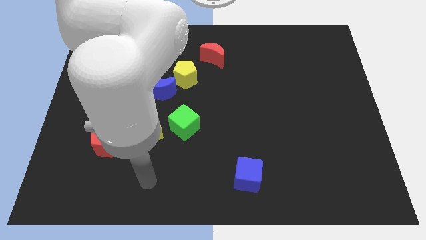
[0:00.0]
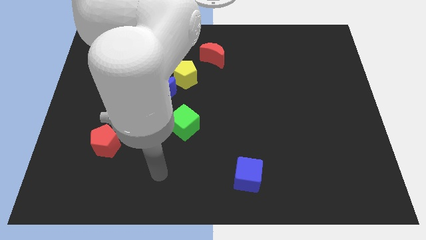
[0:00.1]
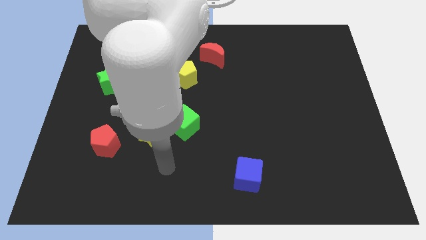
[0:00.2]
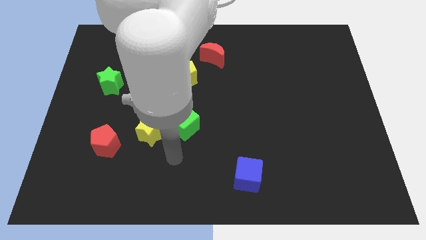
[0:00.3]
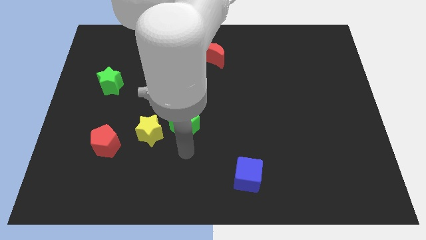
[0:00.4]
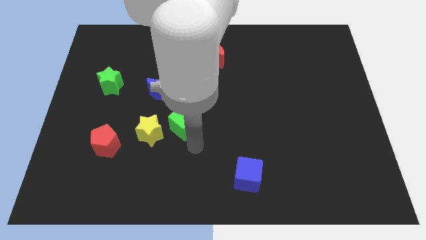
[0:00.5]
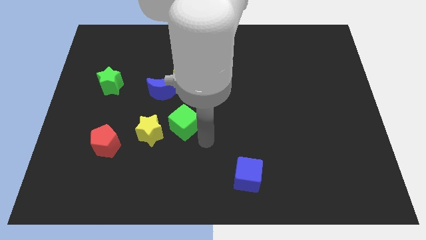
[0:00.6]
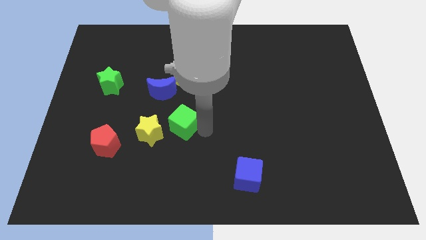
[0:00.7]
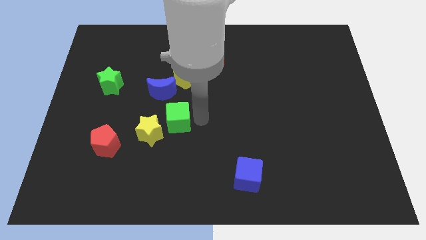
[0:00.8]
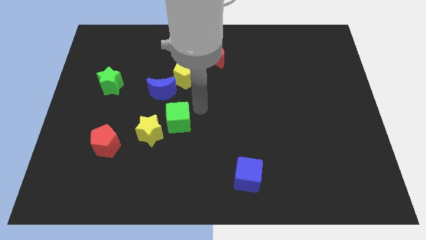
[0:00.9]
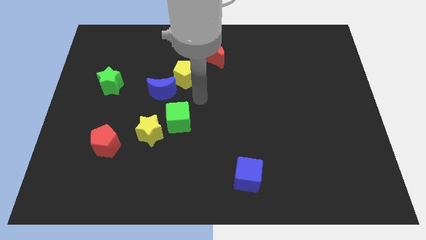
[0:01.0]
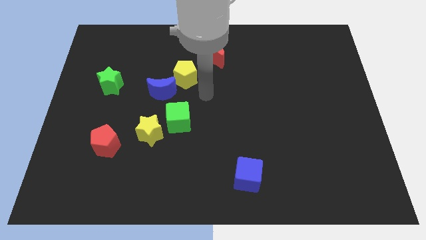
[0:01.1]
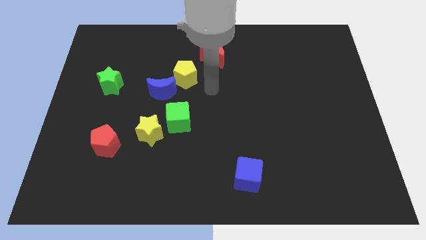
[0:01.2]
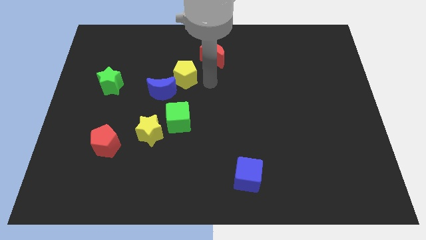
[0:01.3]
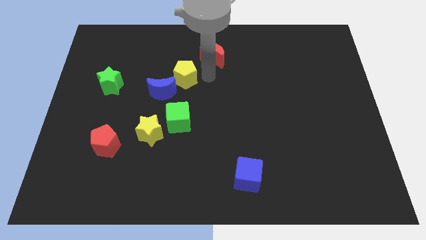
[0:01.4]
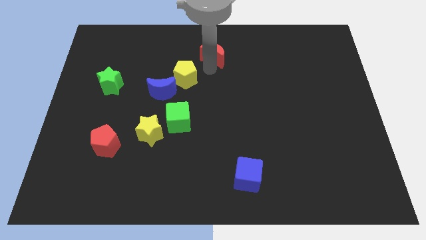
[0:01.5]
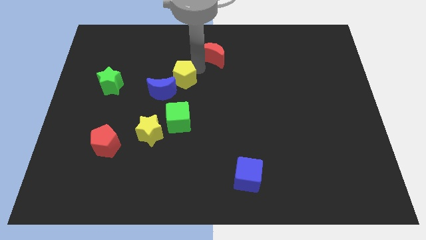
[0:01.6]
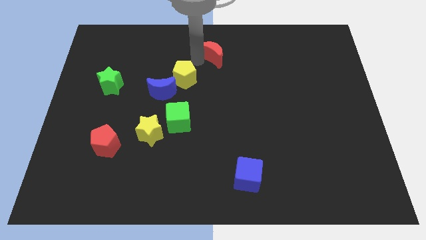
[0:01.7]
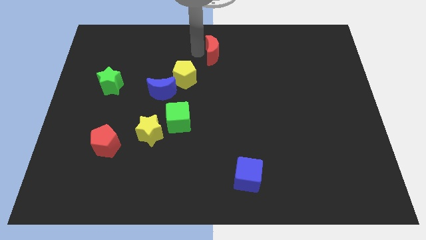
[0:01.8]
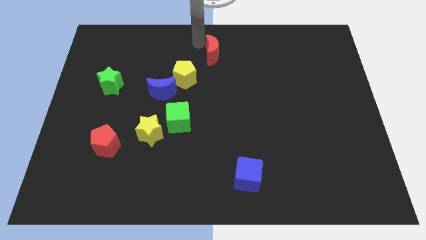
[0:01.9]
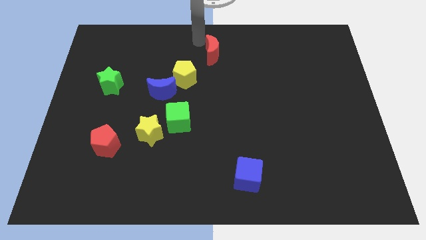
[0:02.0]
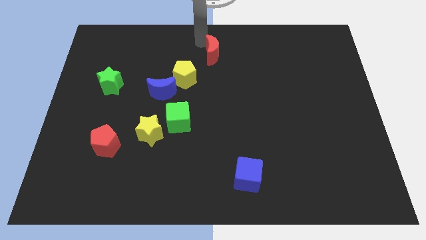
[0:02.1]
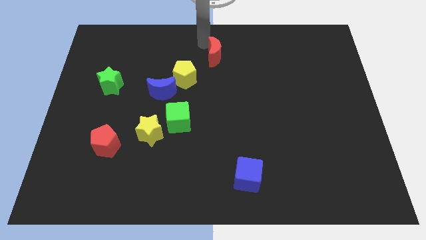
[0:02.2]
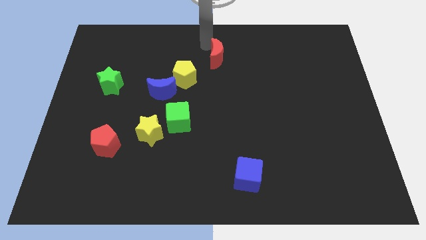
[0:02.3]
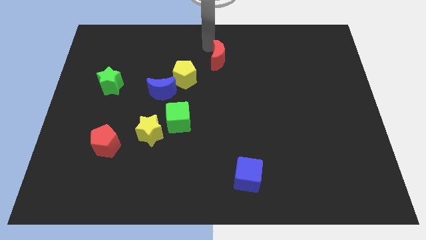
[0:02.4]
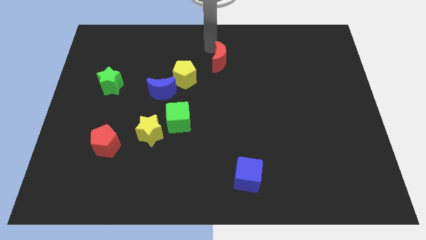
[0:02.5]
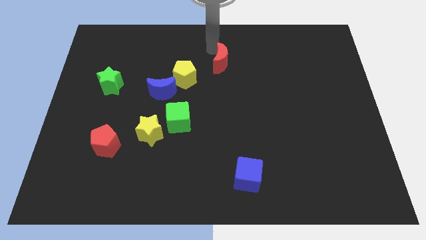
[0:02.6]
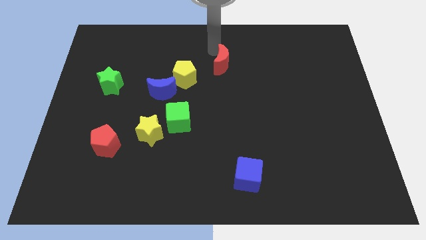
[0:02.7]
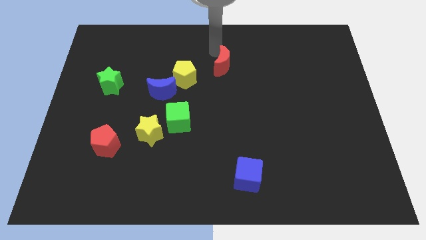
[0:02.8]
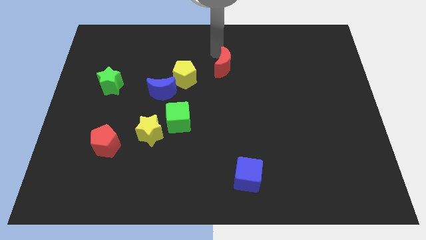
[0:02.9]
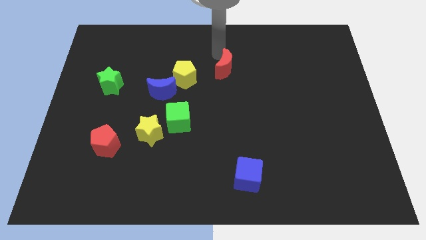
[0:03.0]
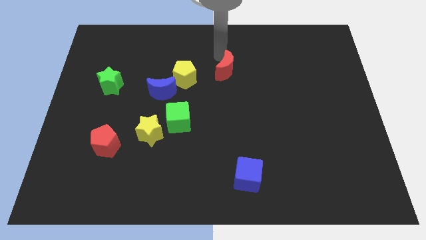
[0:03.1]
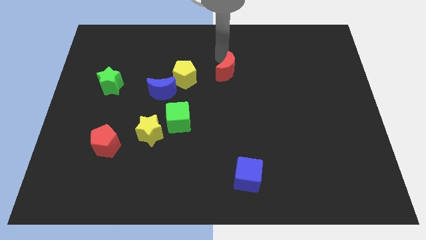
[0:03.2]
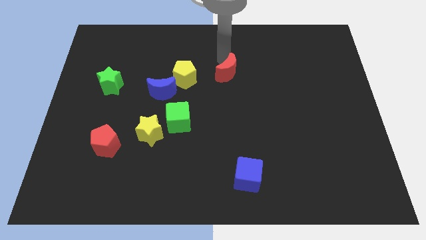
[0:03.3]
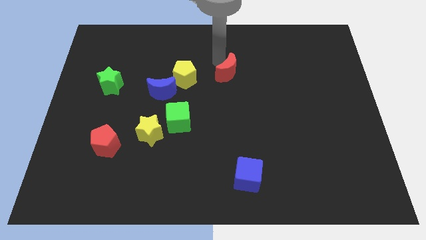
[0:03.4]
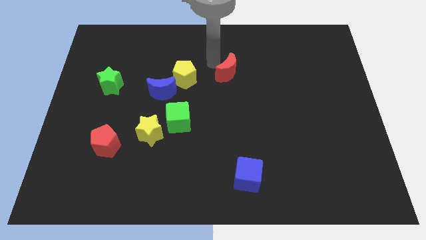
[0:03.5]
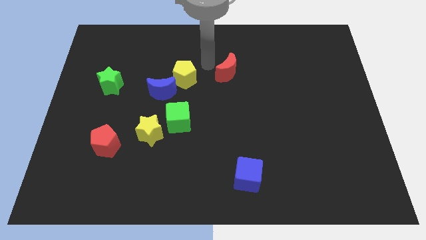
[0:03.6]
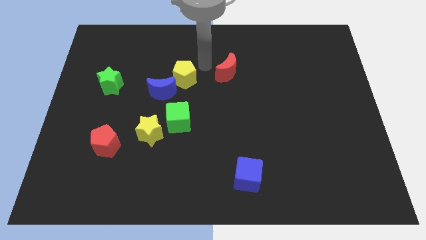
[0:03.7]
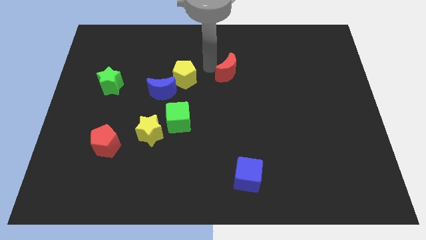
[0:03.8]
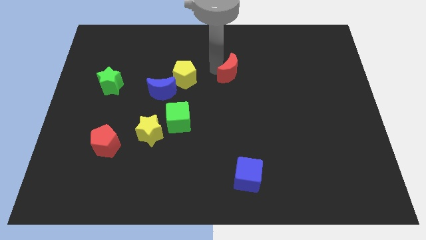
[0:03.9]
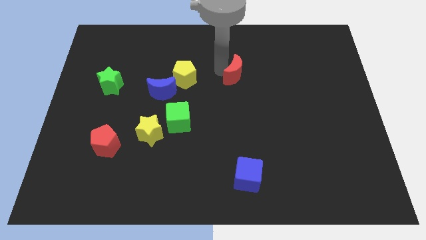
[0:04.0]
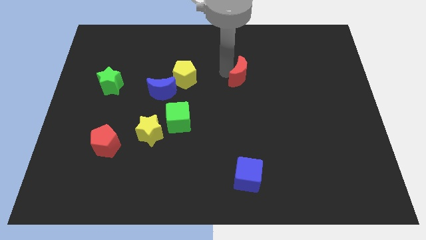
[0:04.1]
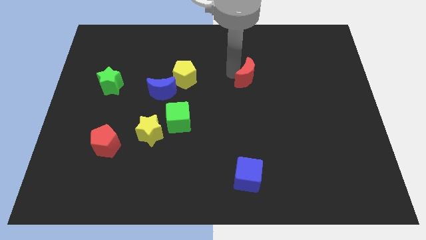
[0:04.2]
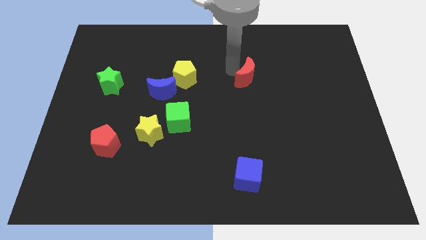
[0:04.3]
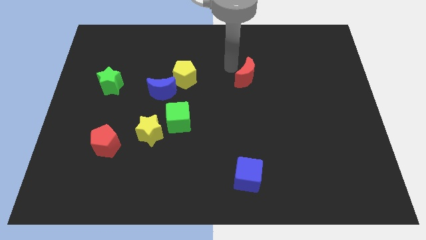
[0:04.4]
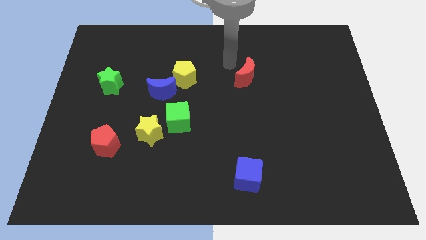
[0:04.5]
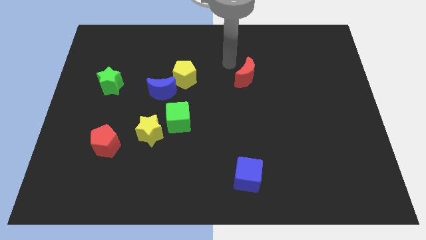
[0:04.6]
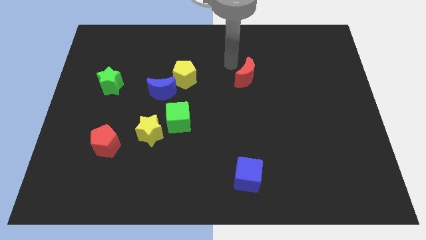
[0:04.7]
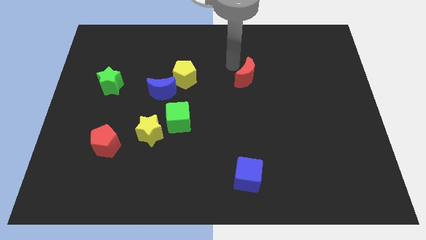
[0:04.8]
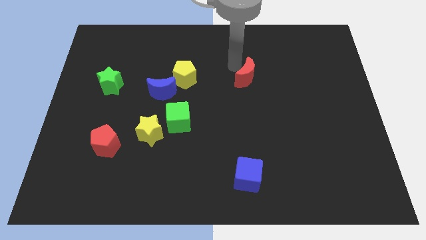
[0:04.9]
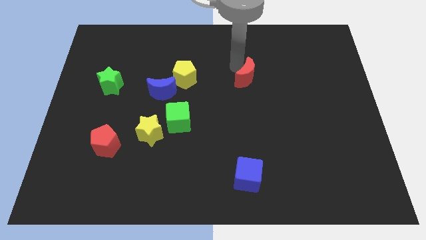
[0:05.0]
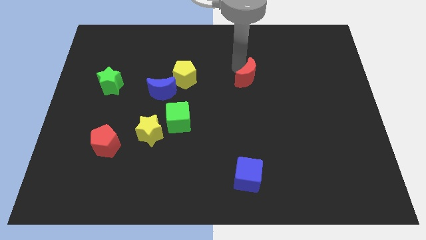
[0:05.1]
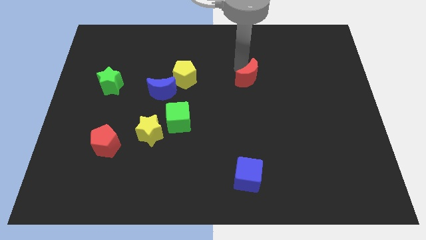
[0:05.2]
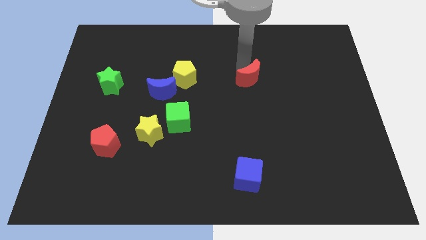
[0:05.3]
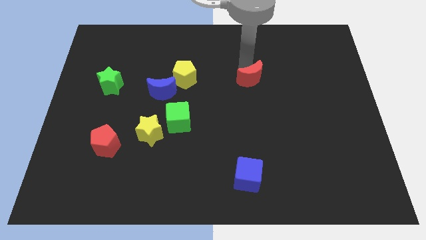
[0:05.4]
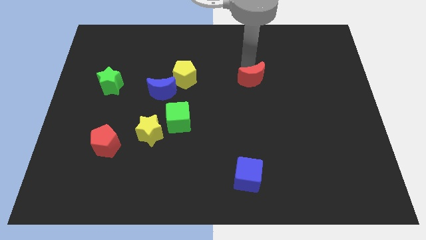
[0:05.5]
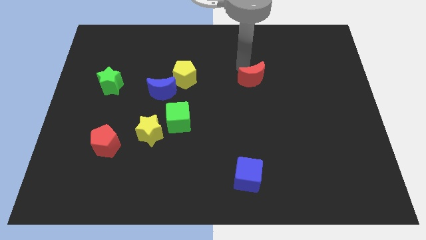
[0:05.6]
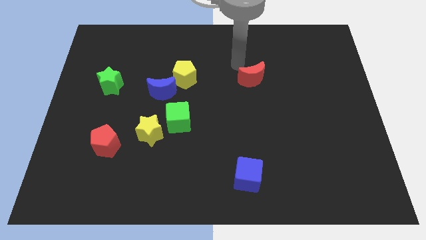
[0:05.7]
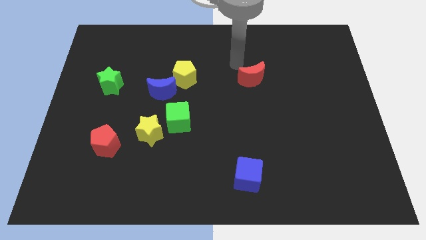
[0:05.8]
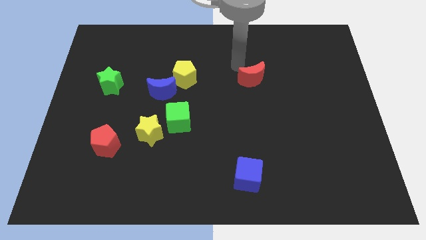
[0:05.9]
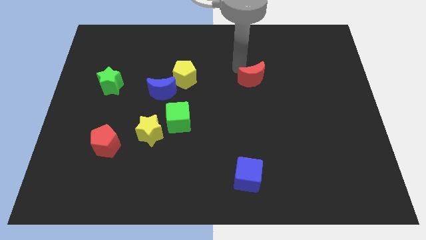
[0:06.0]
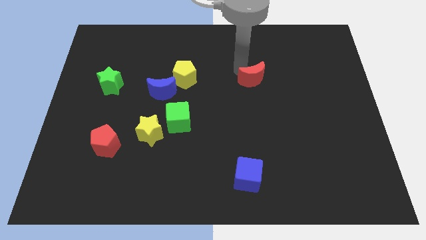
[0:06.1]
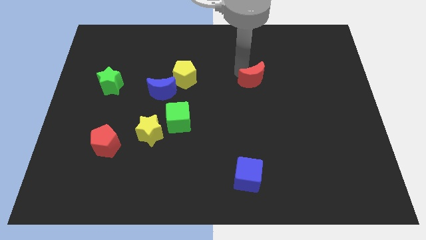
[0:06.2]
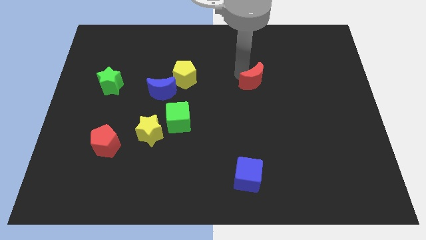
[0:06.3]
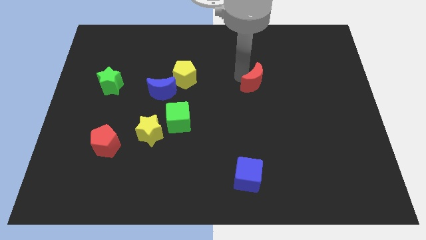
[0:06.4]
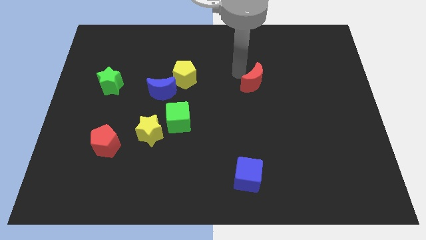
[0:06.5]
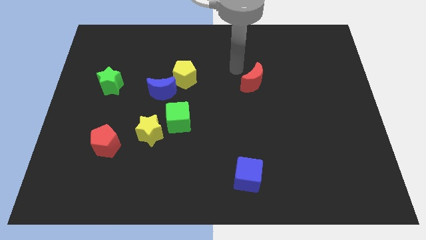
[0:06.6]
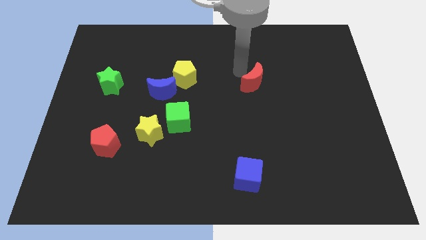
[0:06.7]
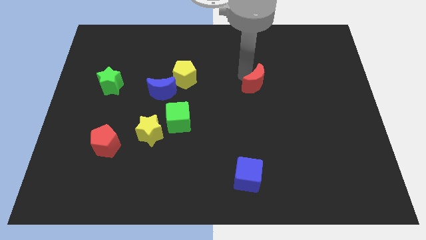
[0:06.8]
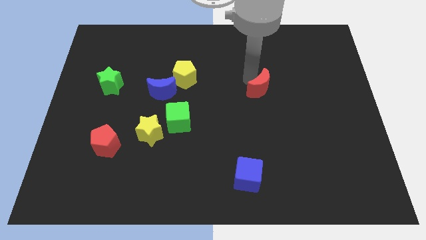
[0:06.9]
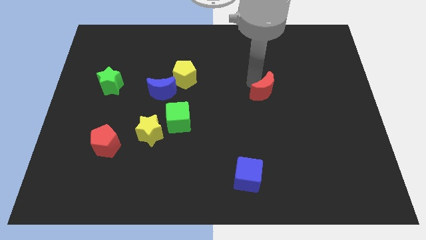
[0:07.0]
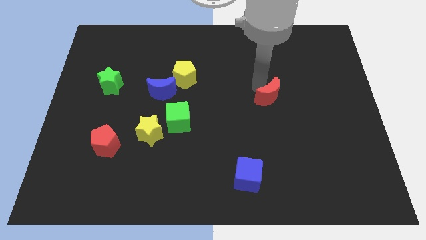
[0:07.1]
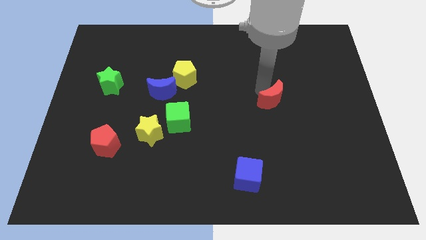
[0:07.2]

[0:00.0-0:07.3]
push the red moon diagonally down and to the right

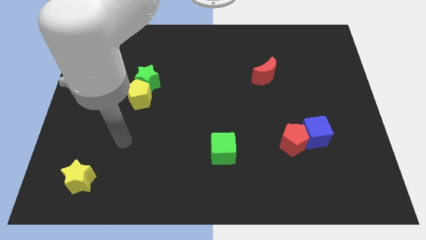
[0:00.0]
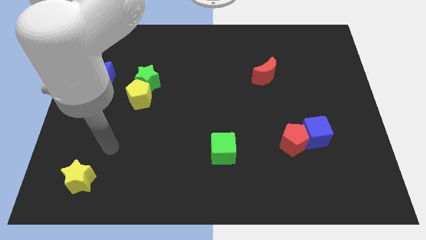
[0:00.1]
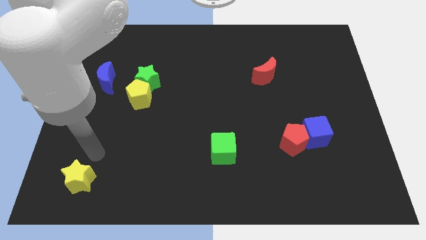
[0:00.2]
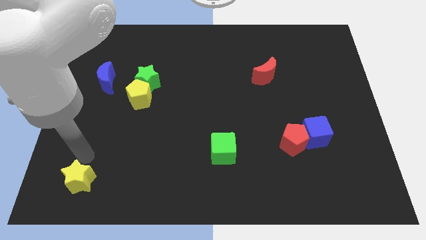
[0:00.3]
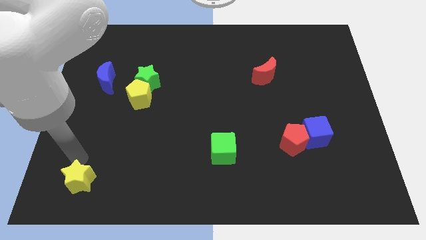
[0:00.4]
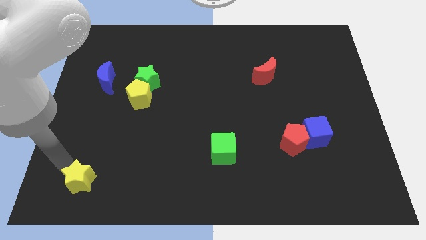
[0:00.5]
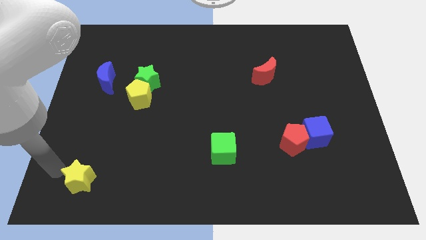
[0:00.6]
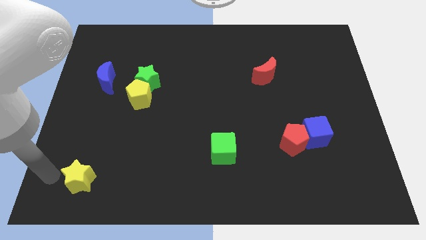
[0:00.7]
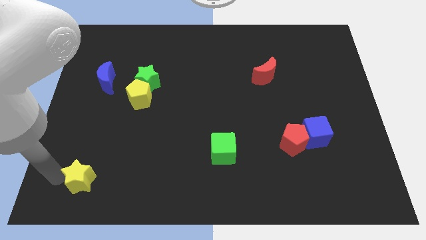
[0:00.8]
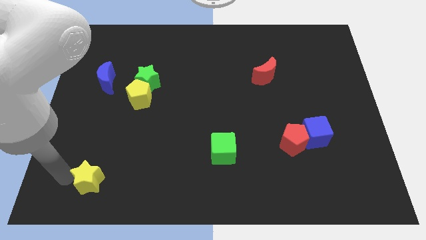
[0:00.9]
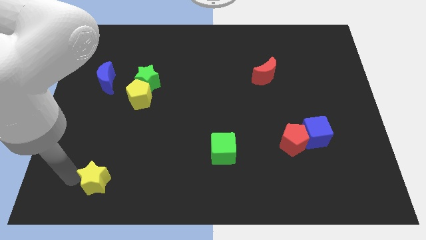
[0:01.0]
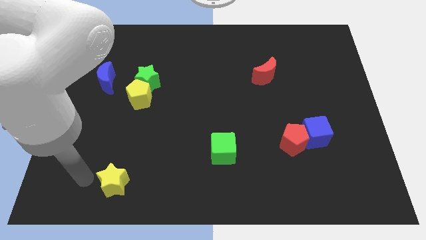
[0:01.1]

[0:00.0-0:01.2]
push the yellow star right slightly
